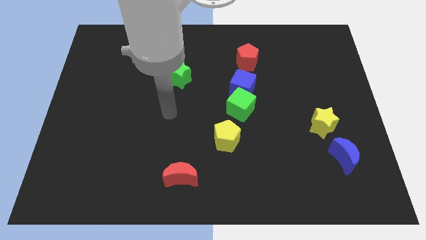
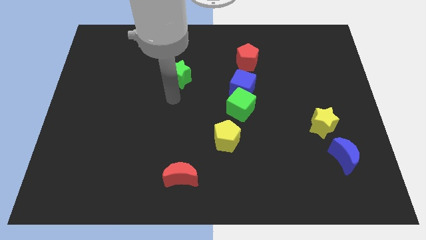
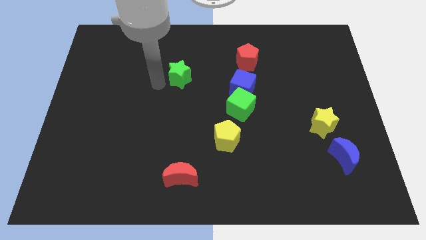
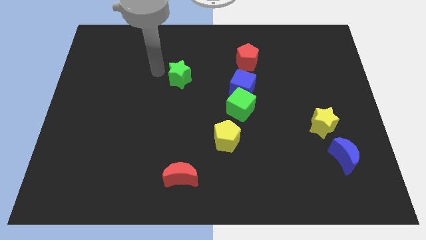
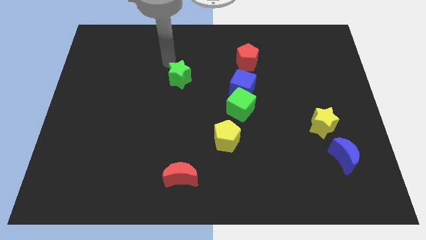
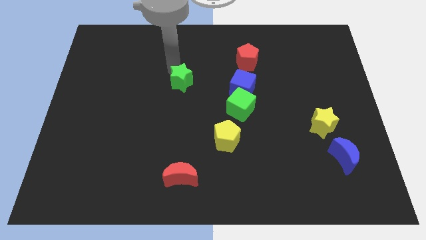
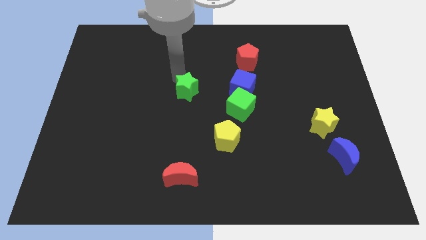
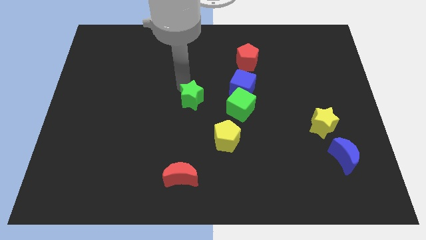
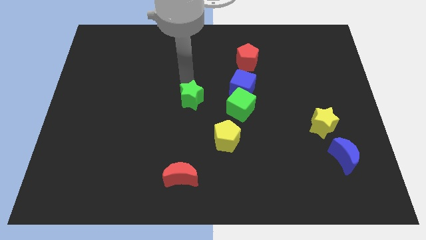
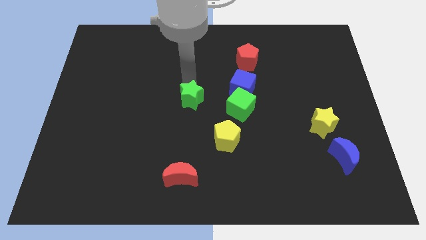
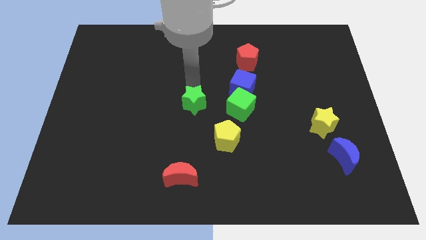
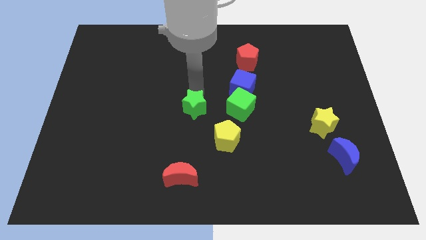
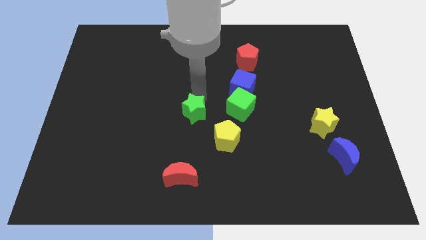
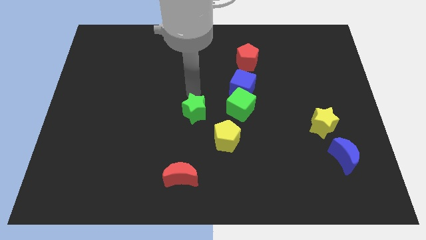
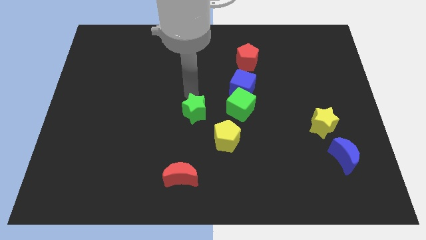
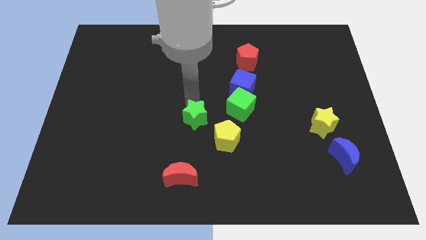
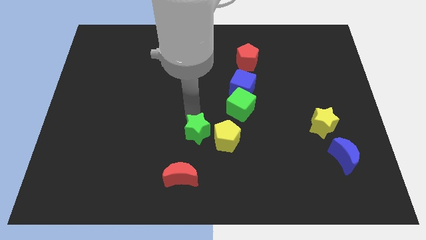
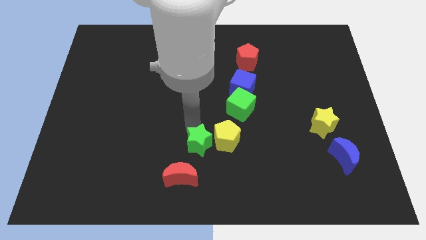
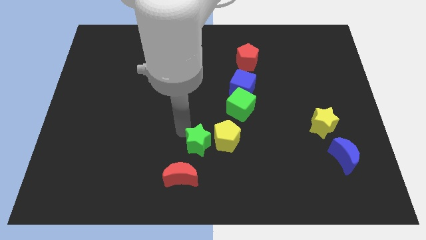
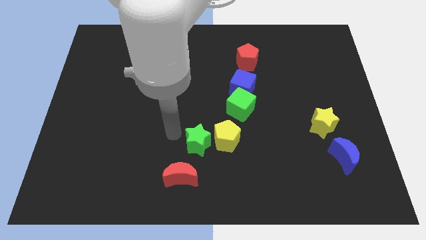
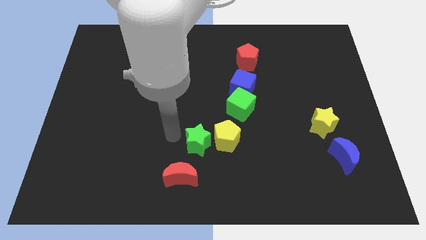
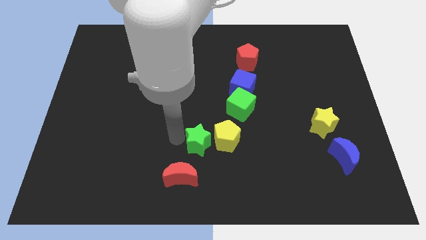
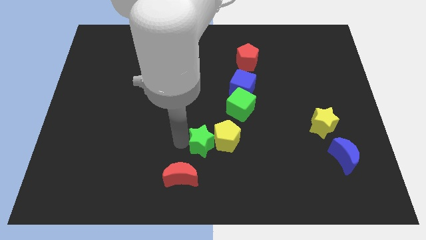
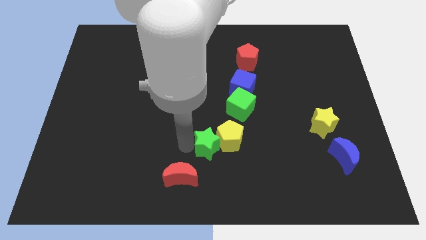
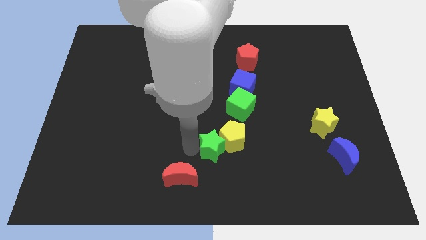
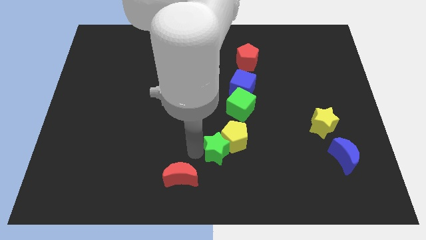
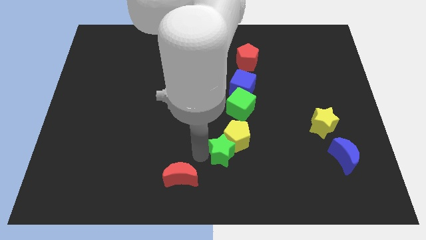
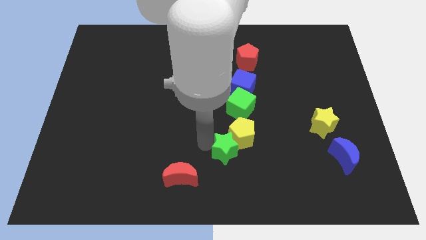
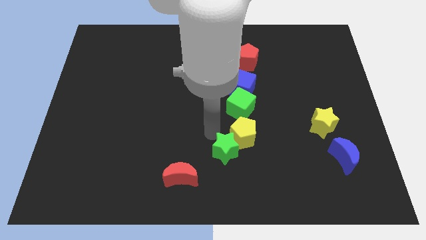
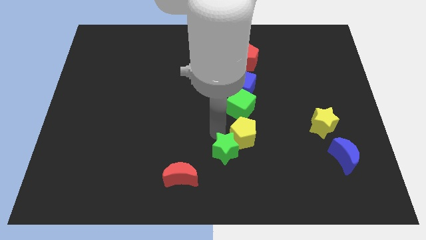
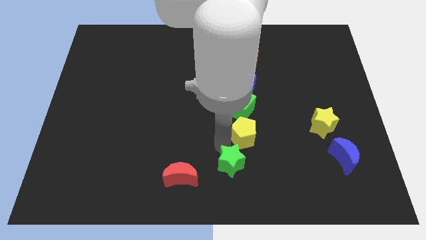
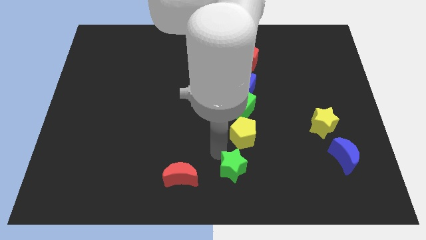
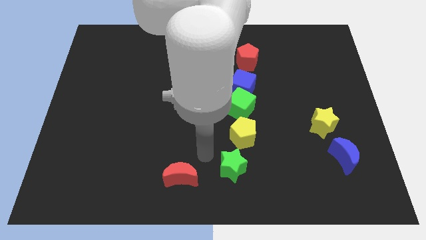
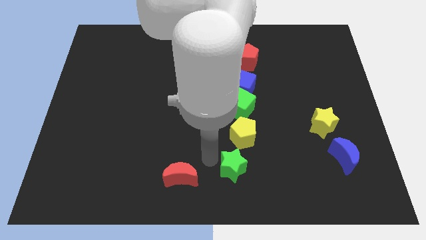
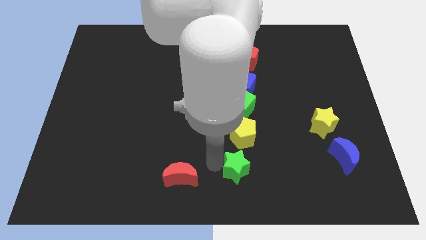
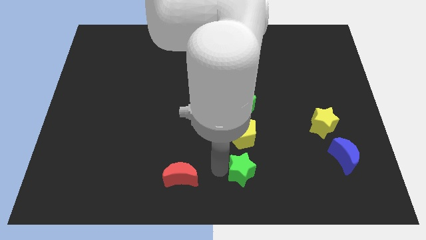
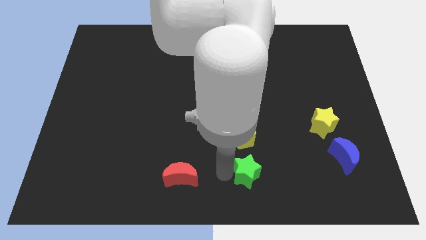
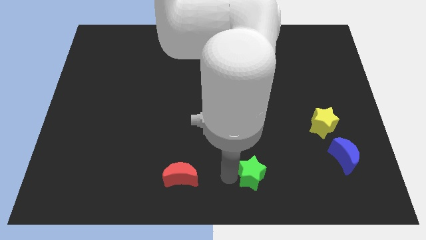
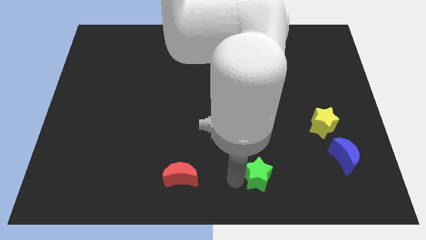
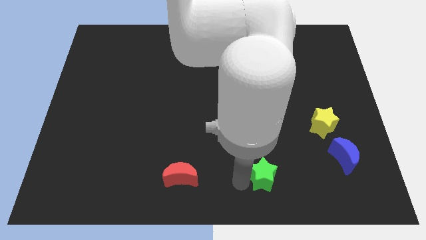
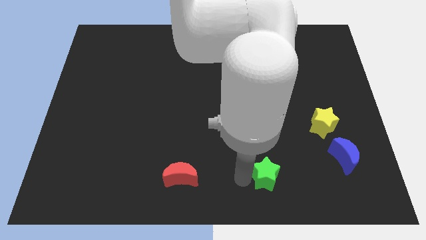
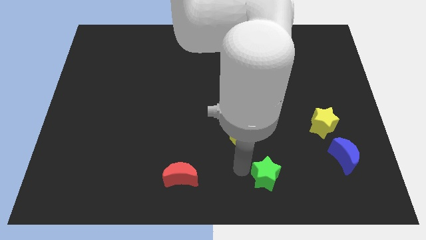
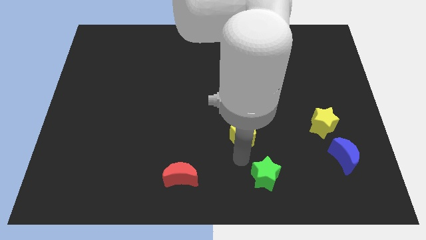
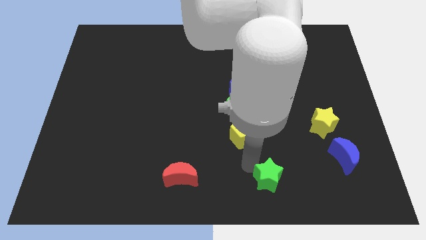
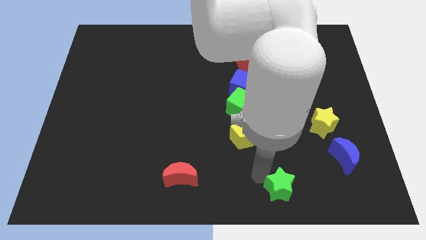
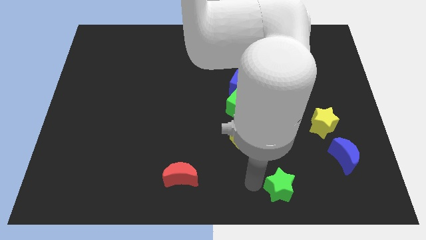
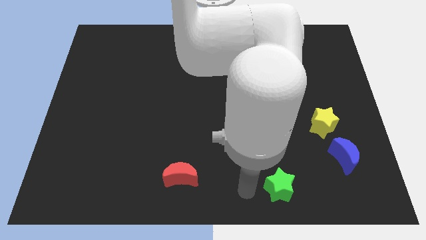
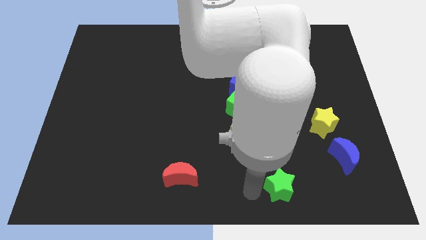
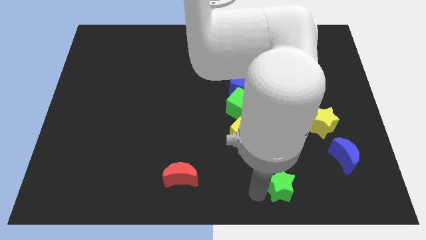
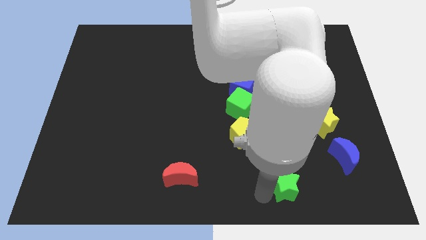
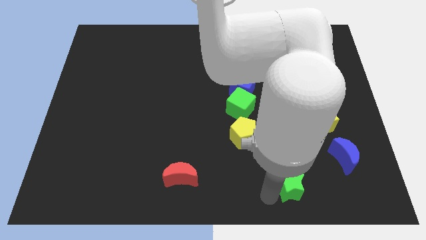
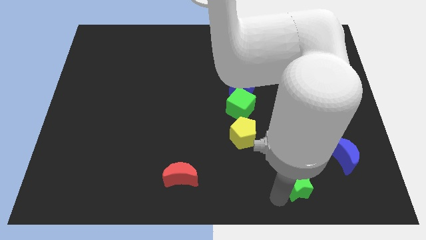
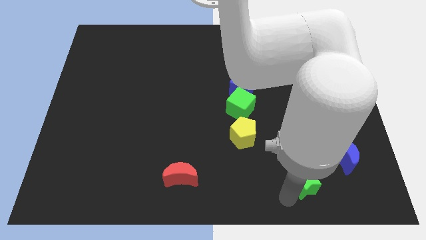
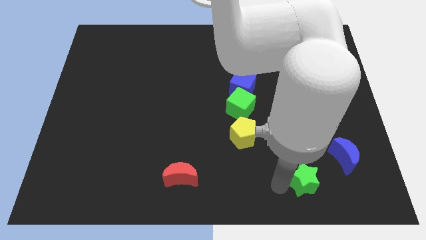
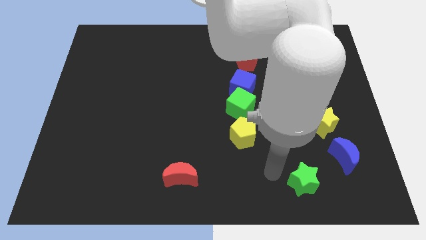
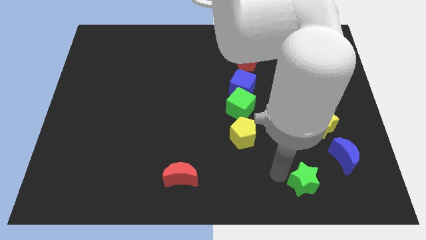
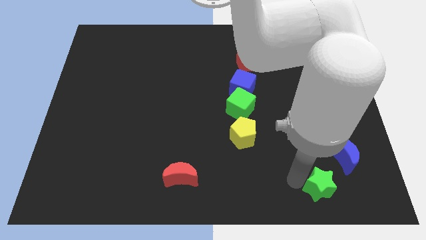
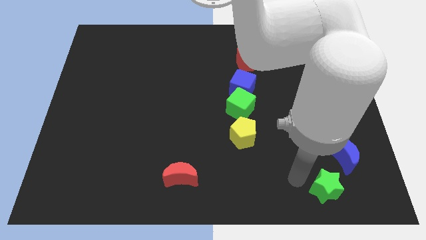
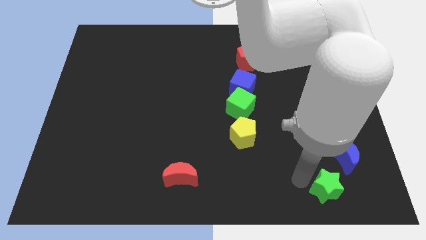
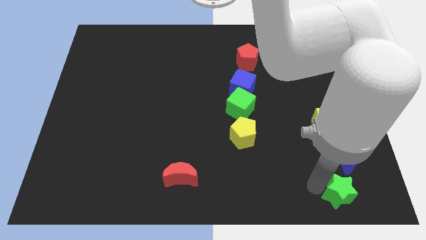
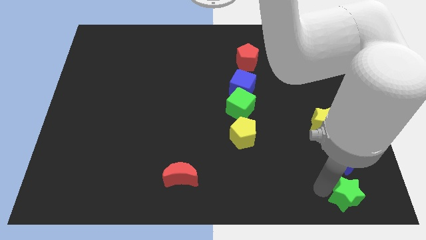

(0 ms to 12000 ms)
slide the green star to the lower right corner
